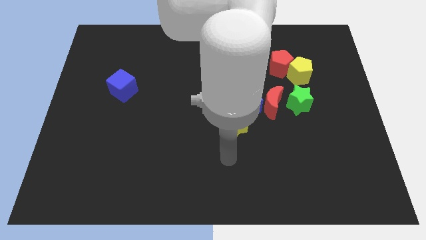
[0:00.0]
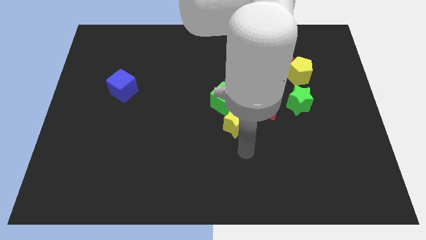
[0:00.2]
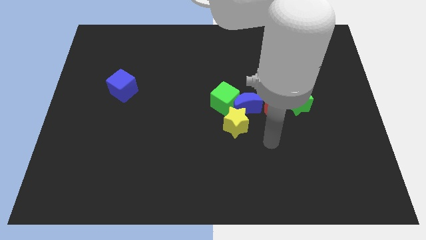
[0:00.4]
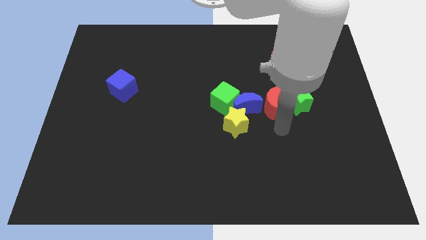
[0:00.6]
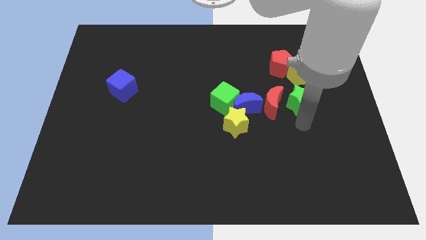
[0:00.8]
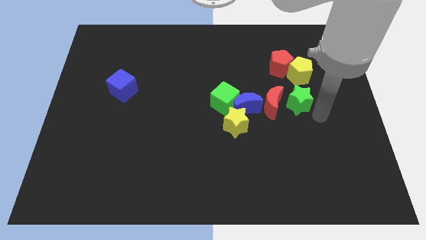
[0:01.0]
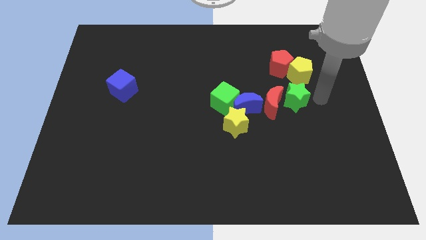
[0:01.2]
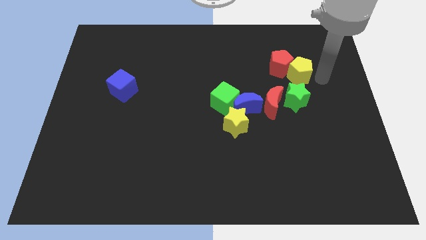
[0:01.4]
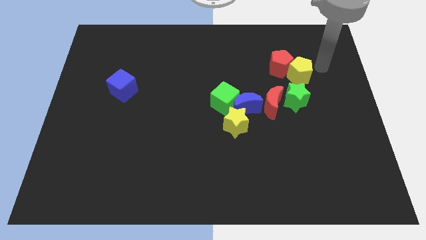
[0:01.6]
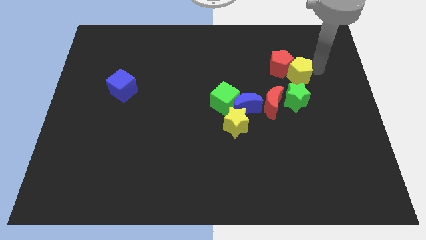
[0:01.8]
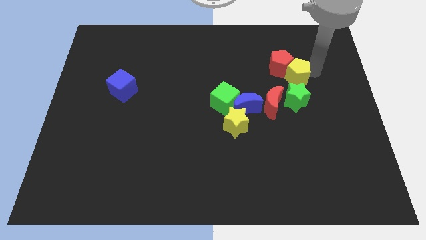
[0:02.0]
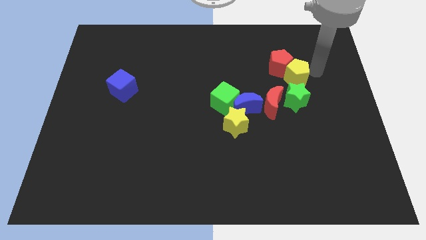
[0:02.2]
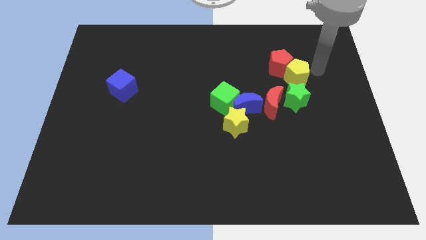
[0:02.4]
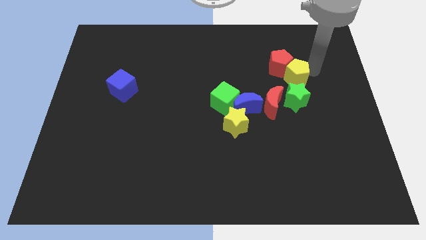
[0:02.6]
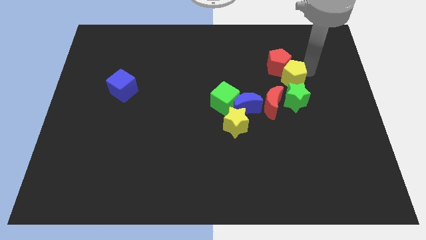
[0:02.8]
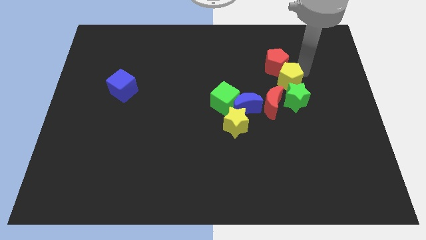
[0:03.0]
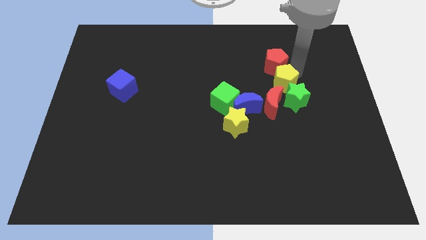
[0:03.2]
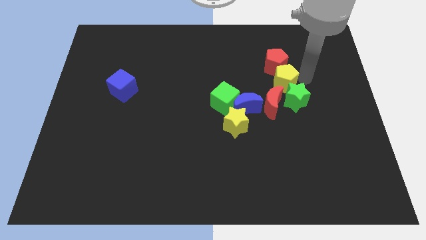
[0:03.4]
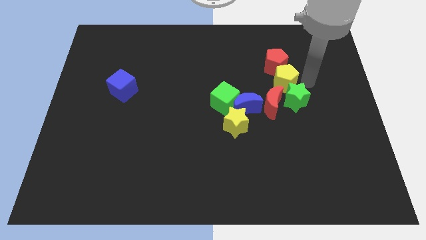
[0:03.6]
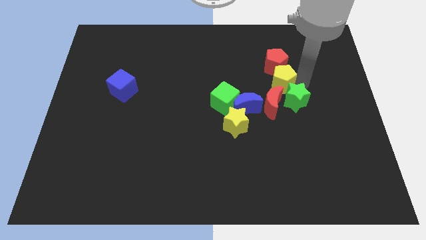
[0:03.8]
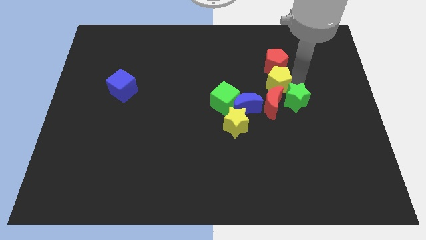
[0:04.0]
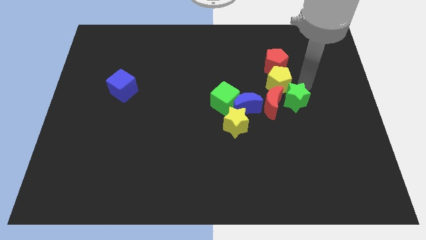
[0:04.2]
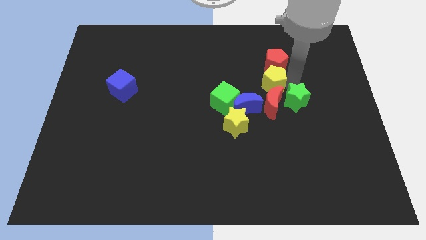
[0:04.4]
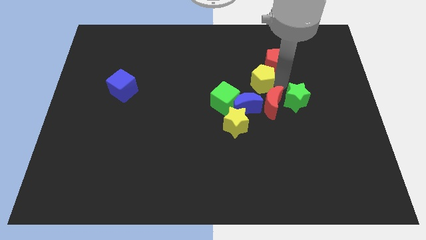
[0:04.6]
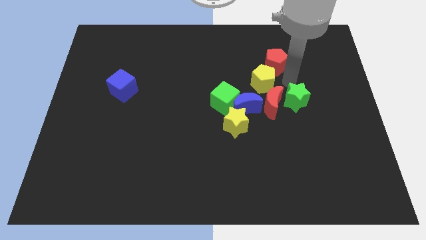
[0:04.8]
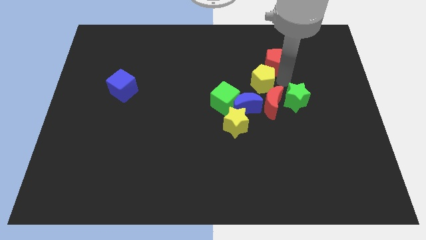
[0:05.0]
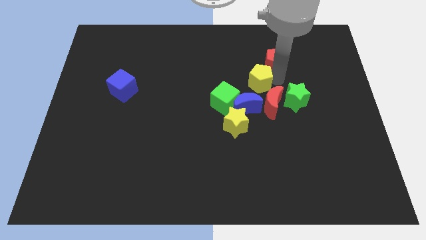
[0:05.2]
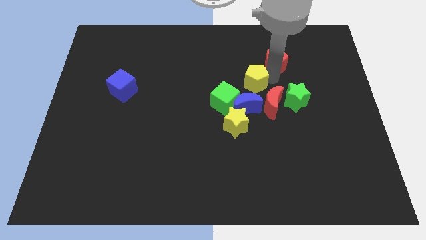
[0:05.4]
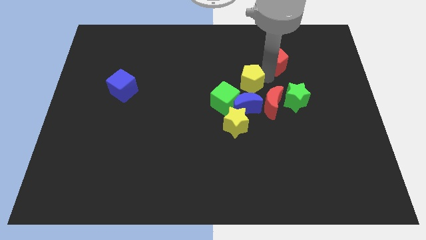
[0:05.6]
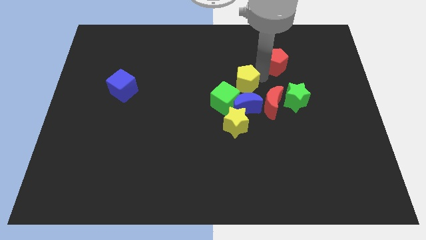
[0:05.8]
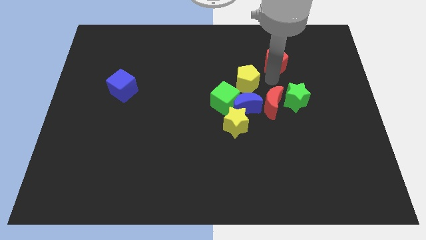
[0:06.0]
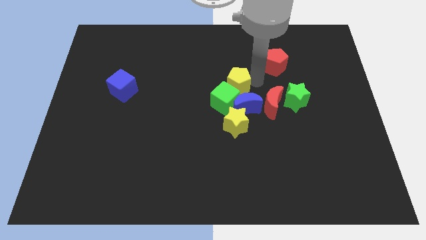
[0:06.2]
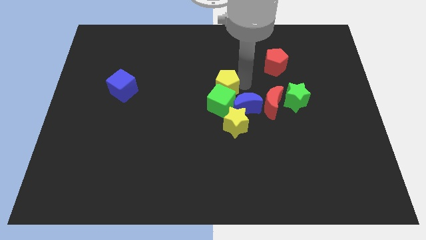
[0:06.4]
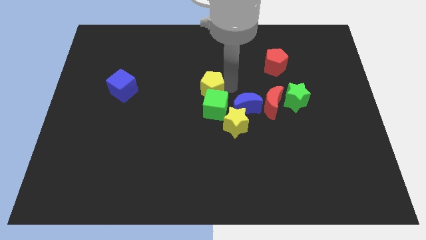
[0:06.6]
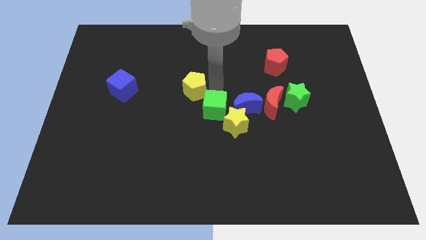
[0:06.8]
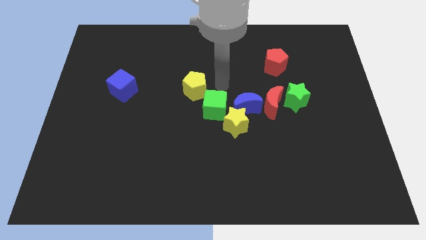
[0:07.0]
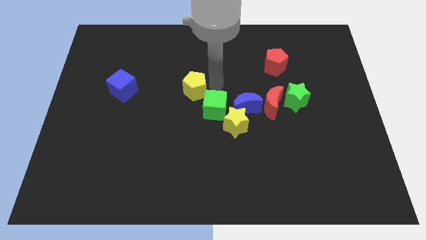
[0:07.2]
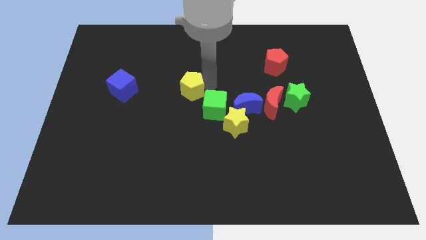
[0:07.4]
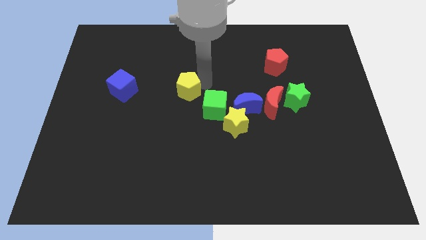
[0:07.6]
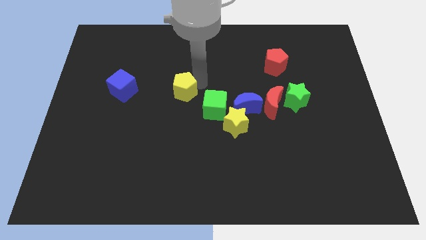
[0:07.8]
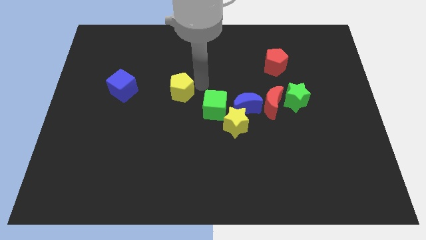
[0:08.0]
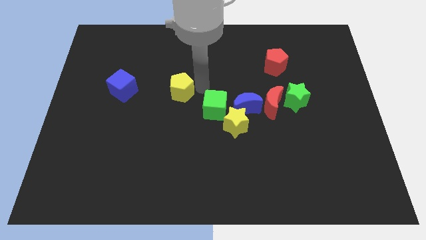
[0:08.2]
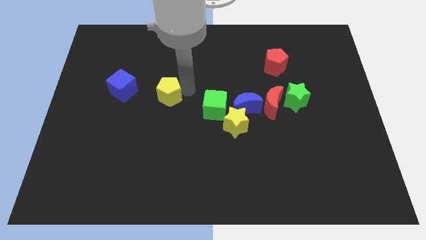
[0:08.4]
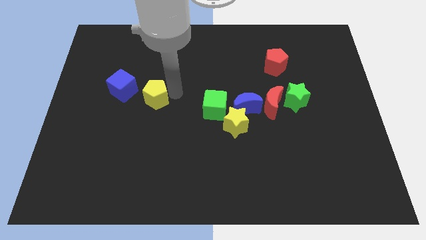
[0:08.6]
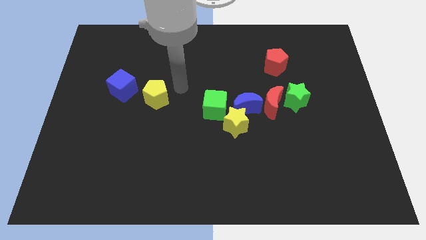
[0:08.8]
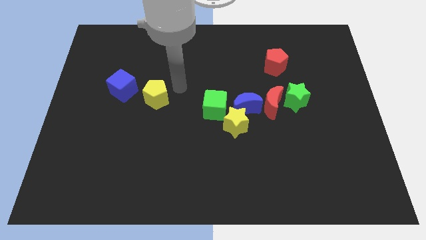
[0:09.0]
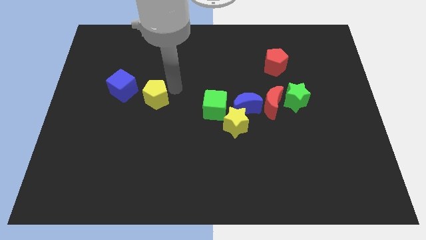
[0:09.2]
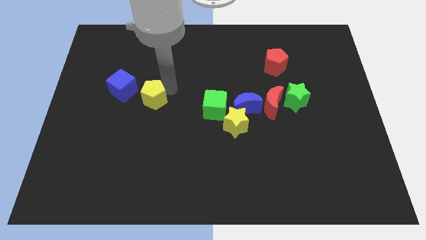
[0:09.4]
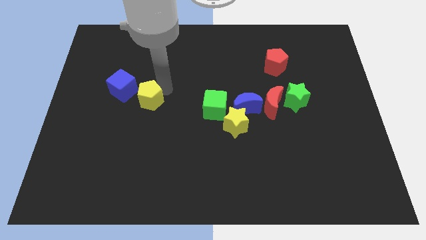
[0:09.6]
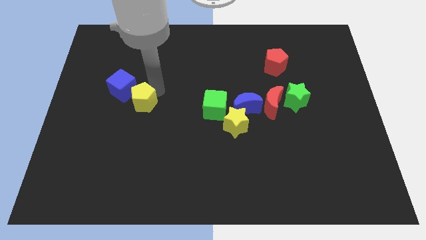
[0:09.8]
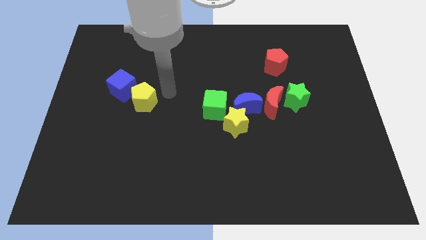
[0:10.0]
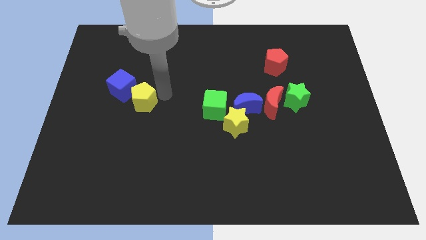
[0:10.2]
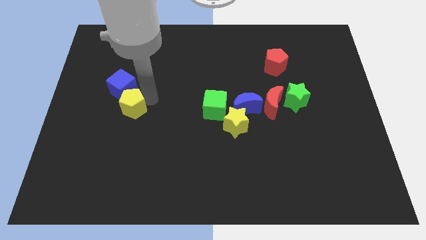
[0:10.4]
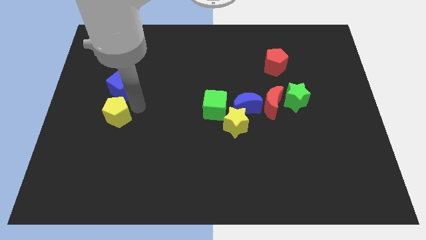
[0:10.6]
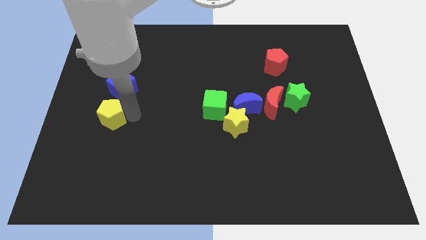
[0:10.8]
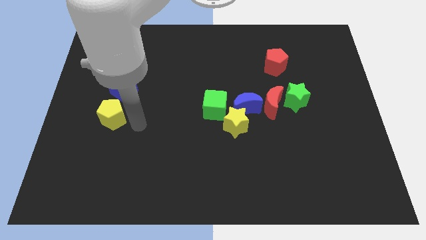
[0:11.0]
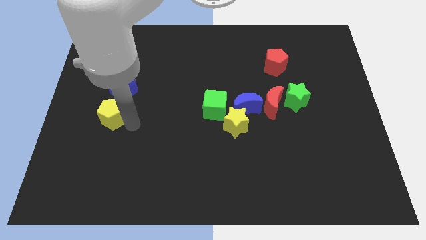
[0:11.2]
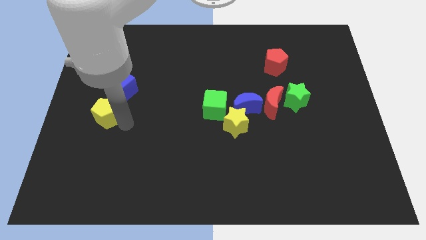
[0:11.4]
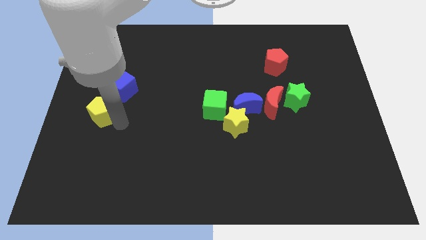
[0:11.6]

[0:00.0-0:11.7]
move the yellow pentagon to the center left

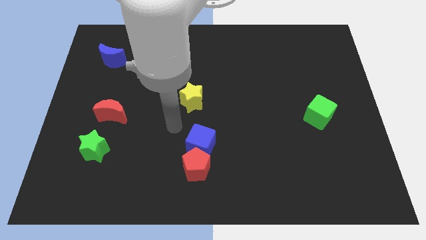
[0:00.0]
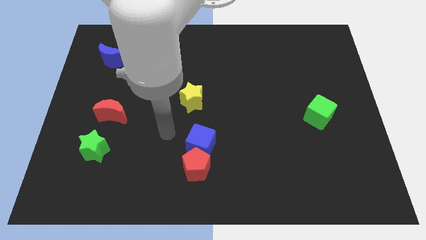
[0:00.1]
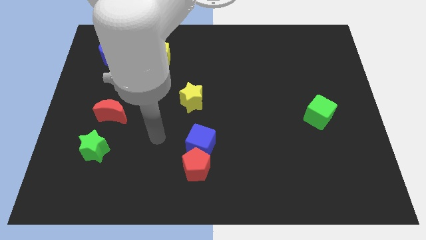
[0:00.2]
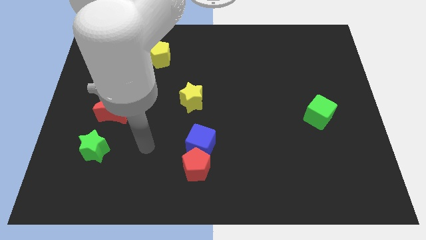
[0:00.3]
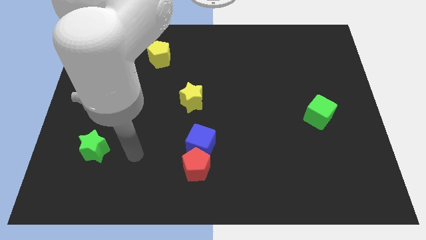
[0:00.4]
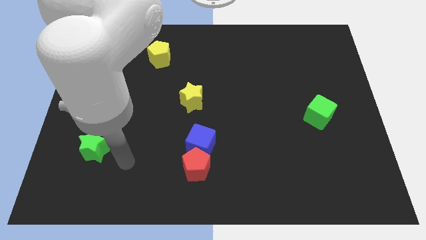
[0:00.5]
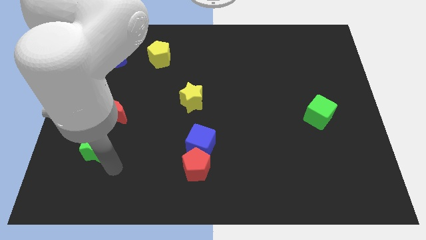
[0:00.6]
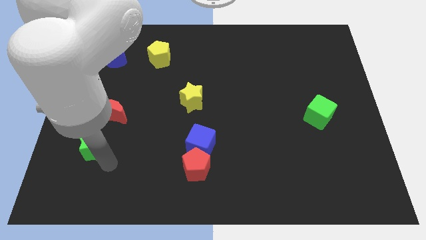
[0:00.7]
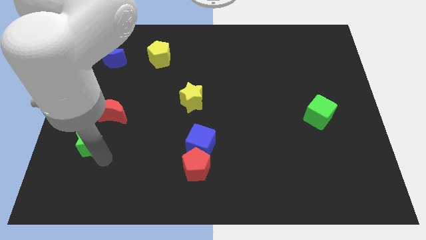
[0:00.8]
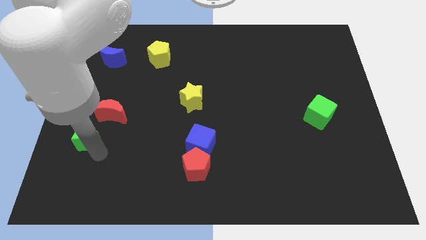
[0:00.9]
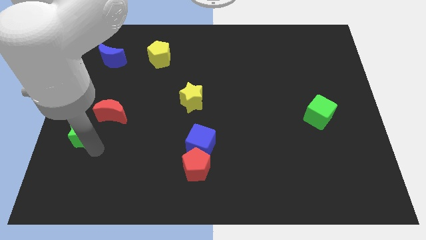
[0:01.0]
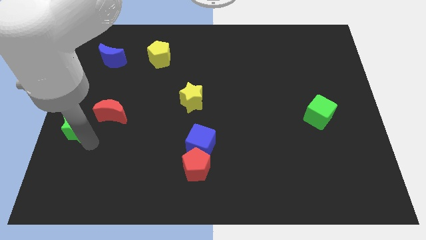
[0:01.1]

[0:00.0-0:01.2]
slide the green star to the center left

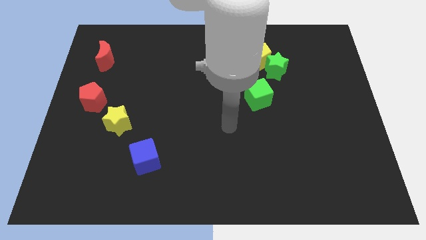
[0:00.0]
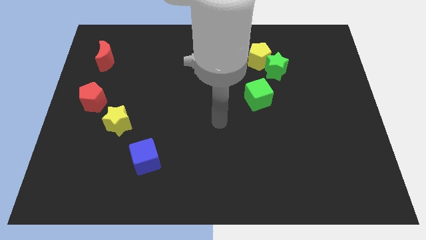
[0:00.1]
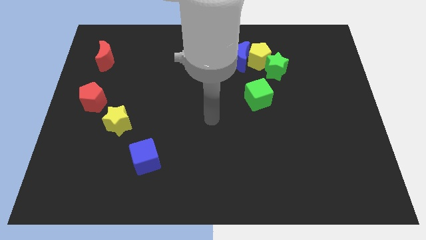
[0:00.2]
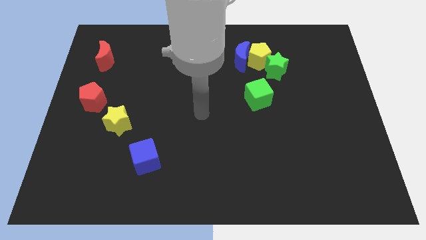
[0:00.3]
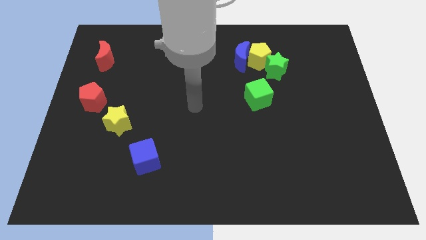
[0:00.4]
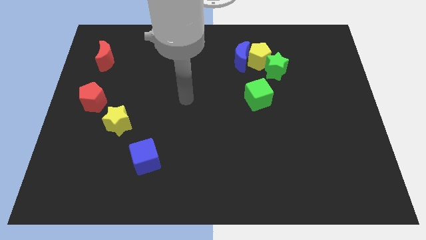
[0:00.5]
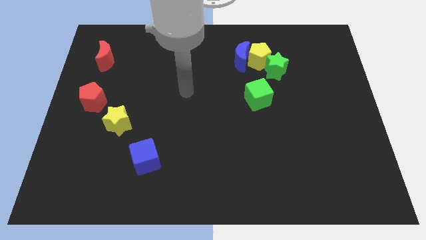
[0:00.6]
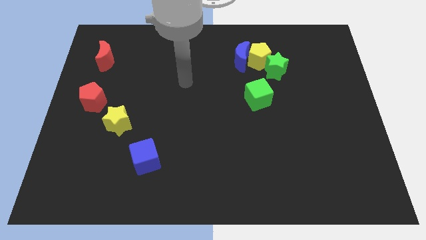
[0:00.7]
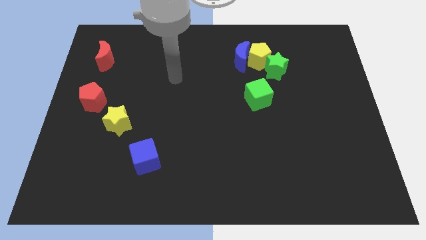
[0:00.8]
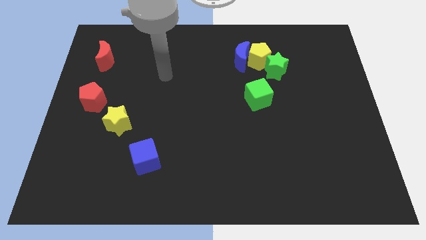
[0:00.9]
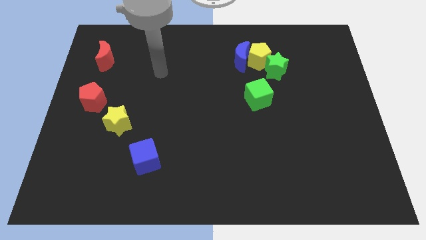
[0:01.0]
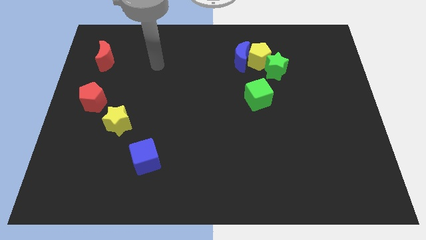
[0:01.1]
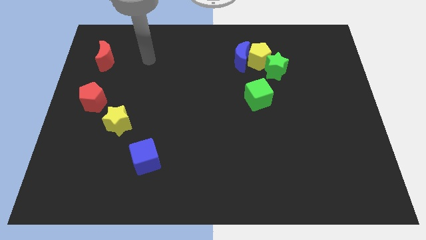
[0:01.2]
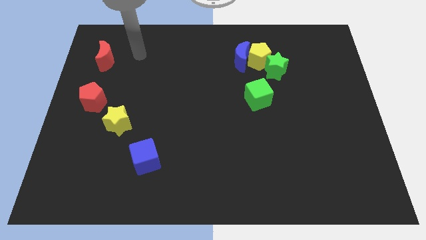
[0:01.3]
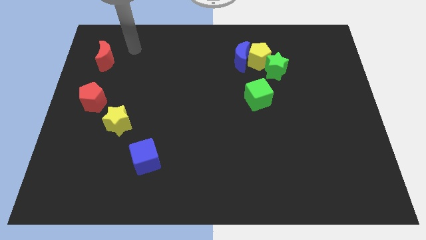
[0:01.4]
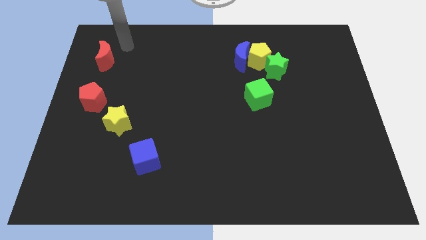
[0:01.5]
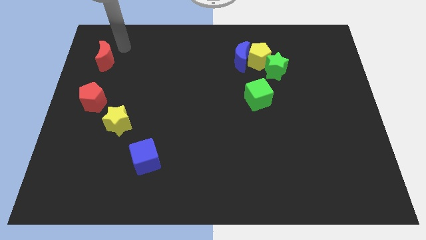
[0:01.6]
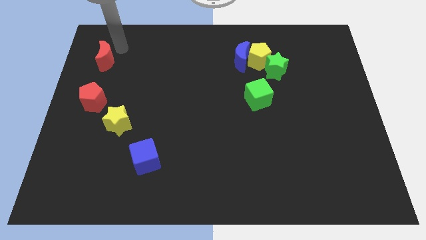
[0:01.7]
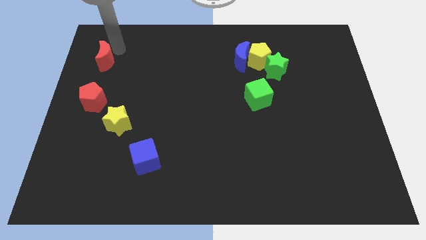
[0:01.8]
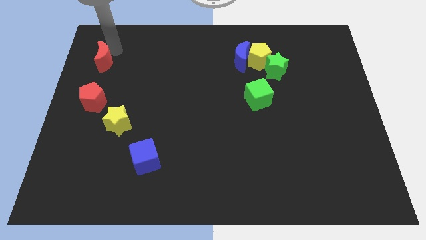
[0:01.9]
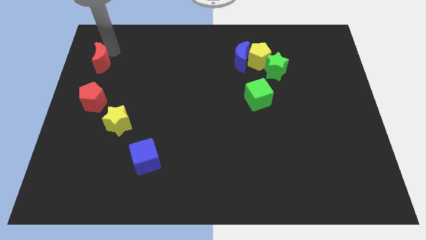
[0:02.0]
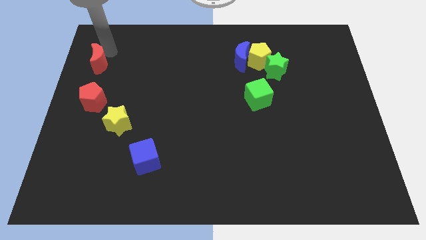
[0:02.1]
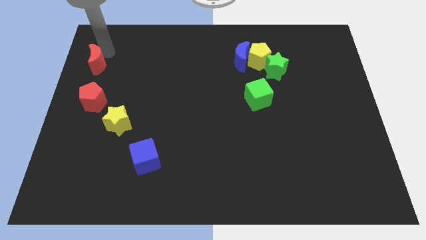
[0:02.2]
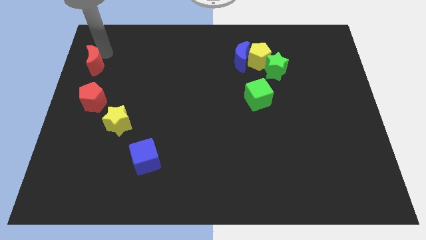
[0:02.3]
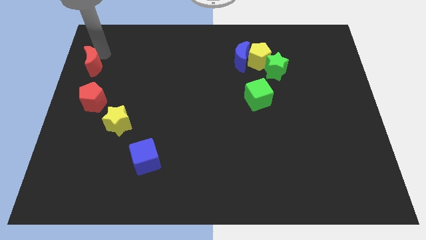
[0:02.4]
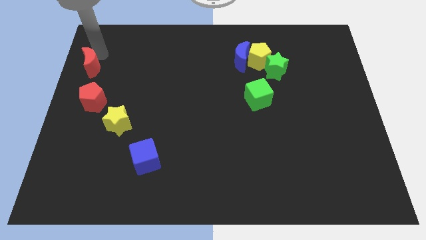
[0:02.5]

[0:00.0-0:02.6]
slide the red moon to the left side of the board
